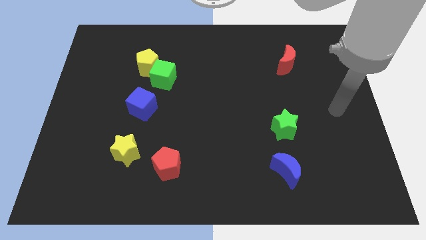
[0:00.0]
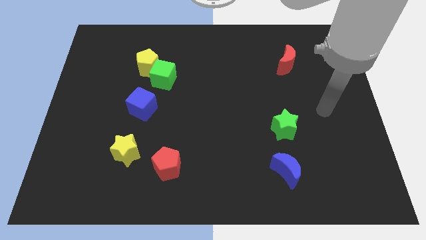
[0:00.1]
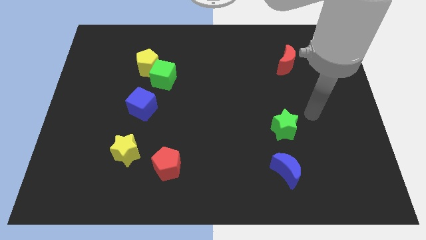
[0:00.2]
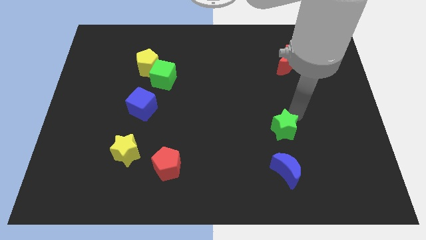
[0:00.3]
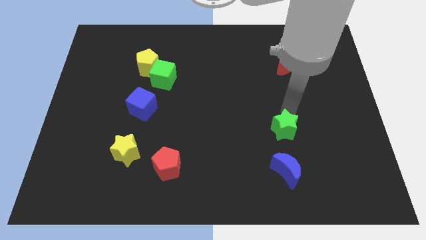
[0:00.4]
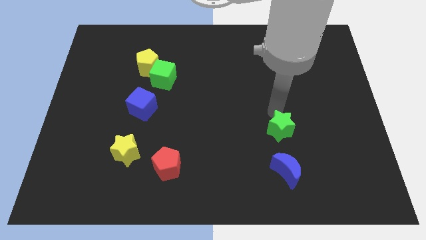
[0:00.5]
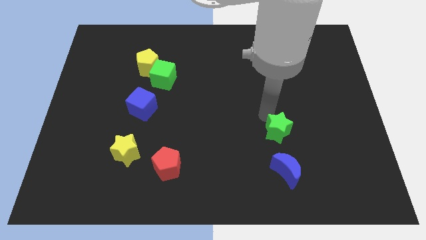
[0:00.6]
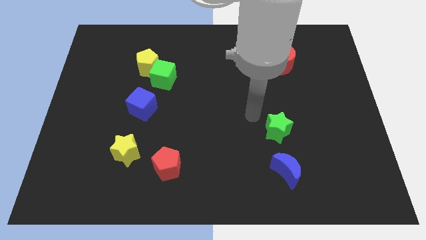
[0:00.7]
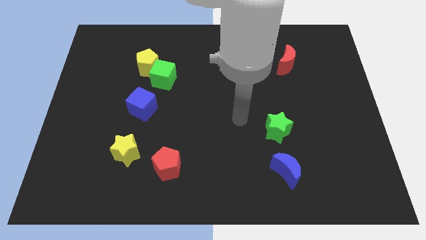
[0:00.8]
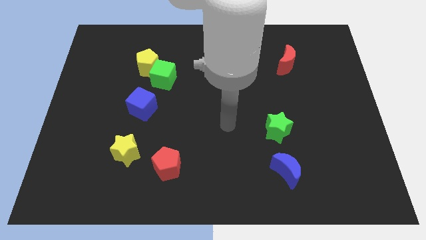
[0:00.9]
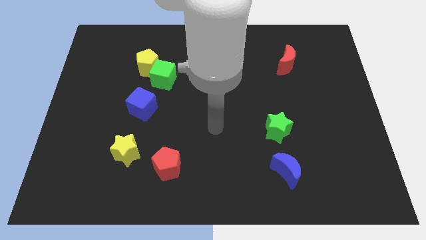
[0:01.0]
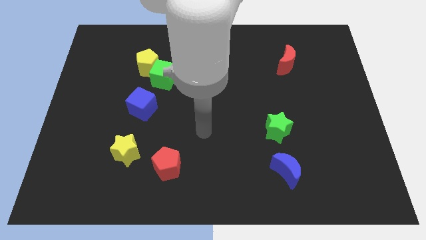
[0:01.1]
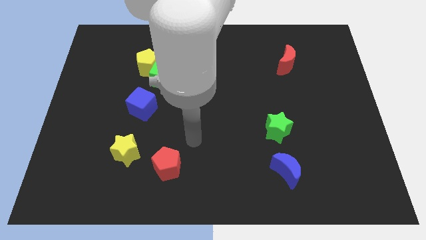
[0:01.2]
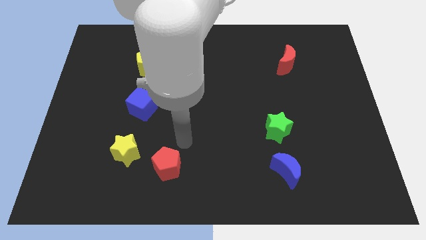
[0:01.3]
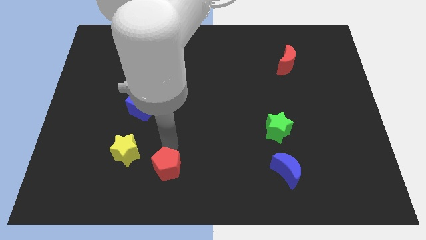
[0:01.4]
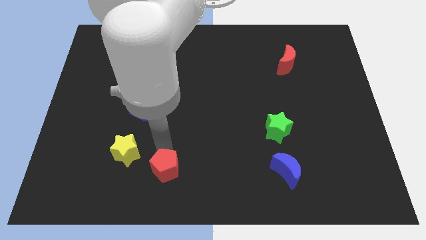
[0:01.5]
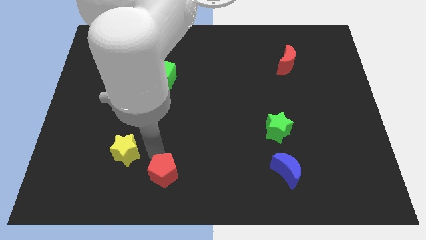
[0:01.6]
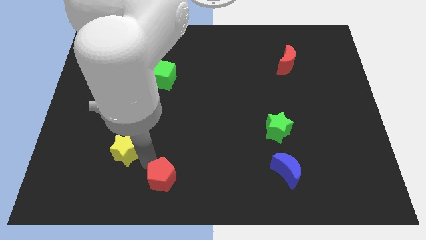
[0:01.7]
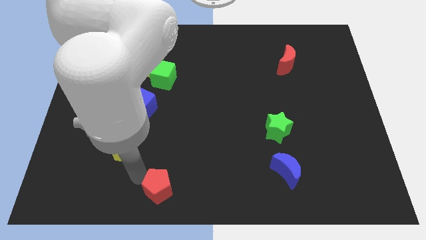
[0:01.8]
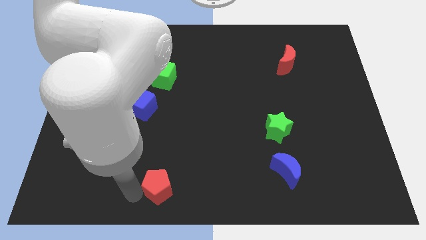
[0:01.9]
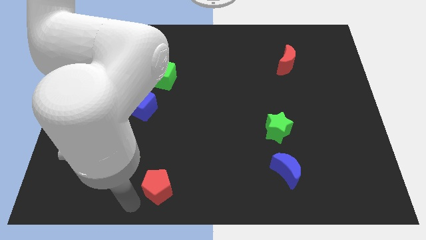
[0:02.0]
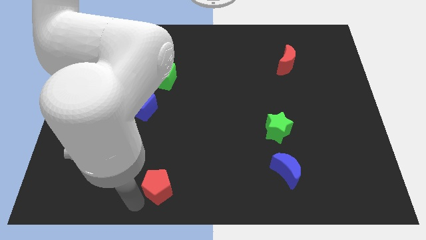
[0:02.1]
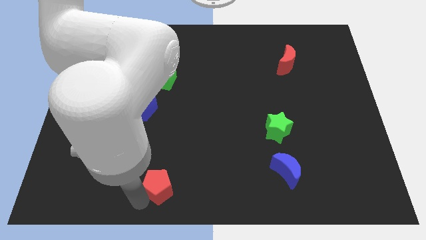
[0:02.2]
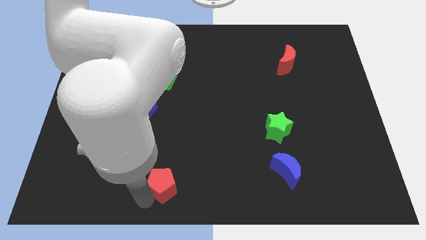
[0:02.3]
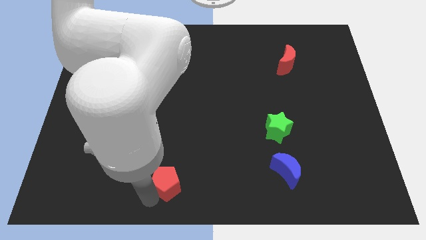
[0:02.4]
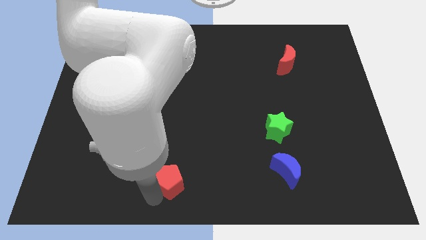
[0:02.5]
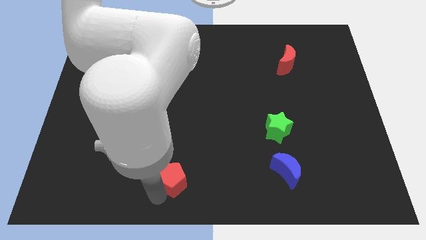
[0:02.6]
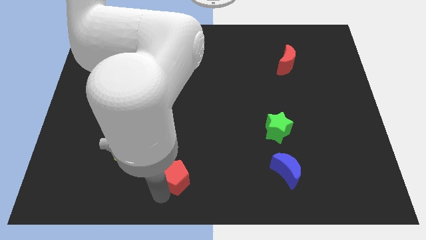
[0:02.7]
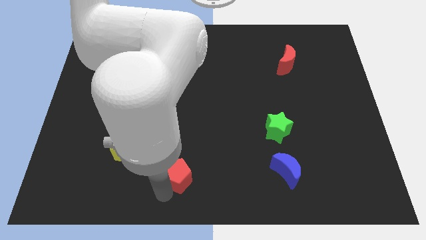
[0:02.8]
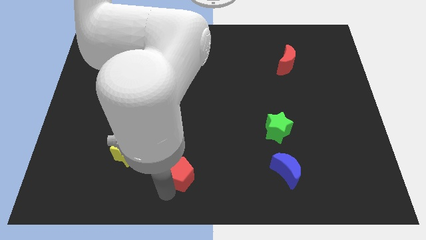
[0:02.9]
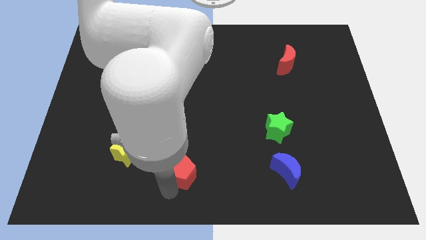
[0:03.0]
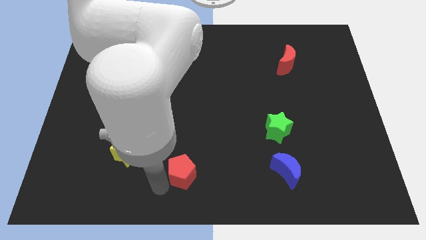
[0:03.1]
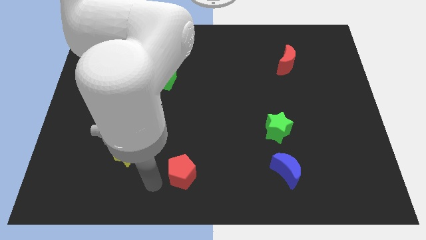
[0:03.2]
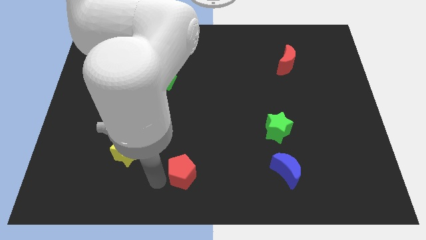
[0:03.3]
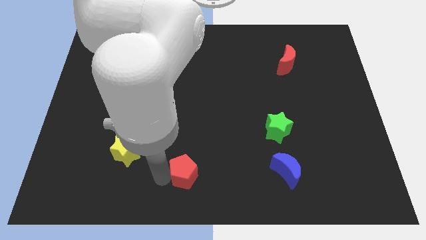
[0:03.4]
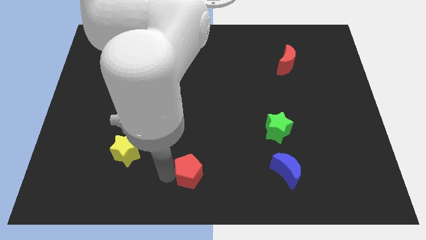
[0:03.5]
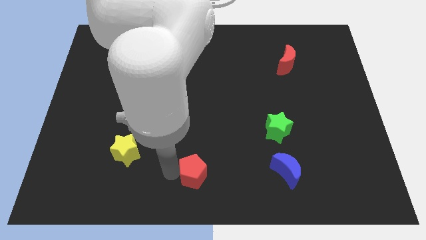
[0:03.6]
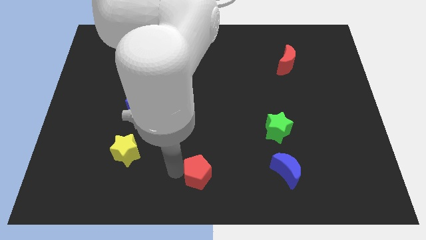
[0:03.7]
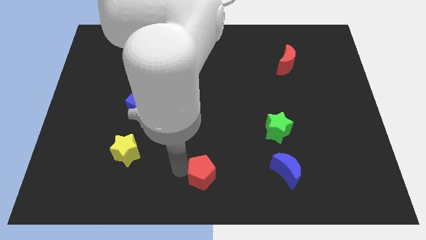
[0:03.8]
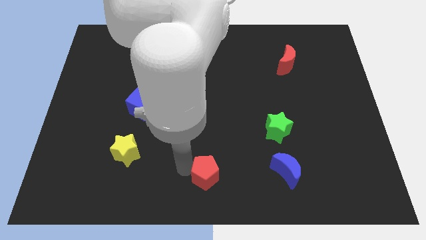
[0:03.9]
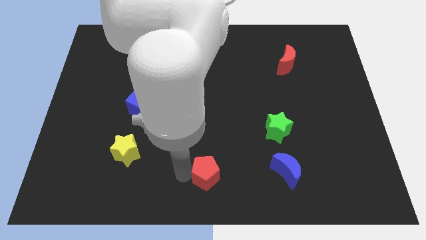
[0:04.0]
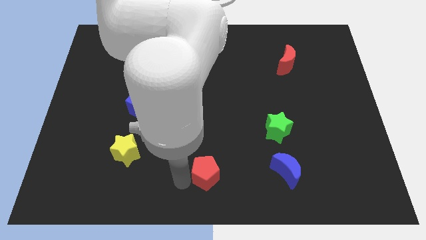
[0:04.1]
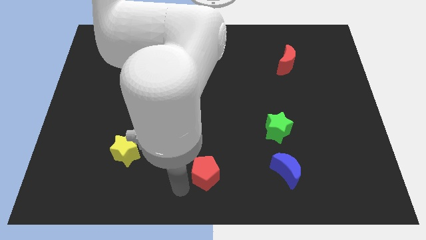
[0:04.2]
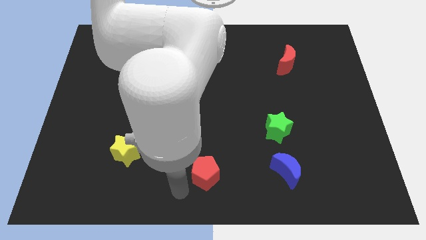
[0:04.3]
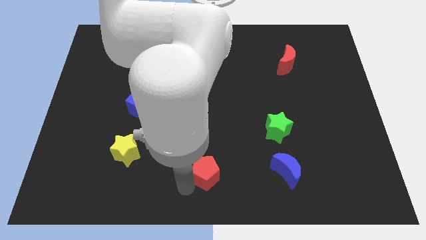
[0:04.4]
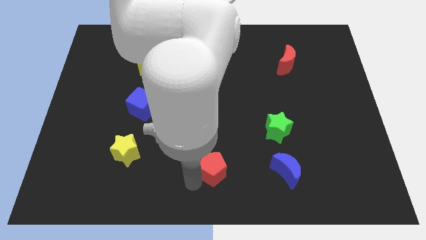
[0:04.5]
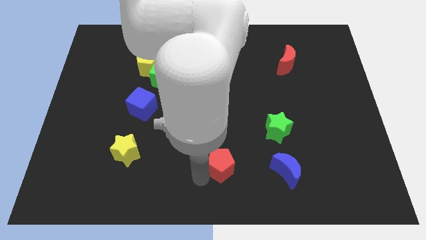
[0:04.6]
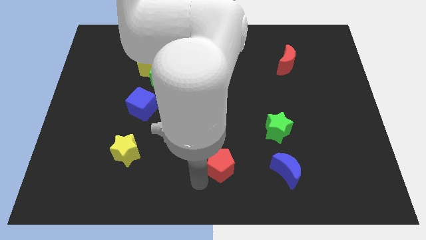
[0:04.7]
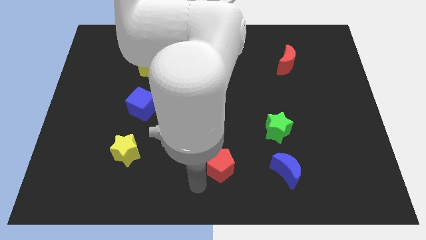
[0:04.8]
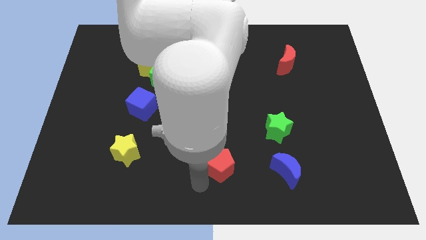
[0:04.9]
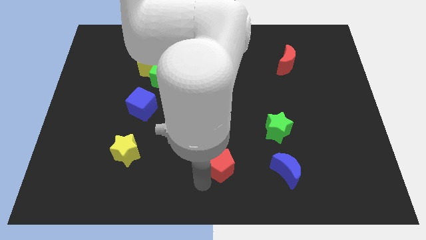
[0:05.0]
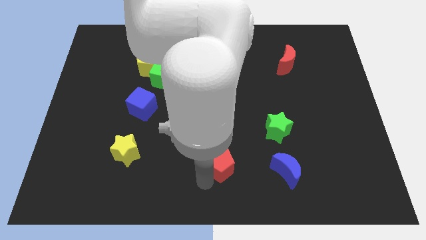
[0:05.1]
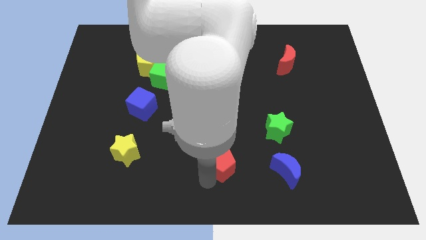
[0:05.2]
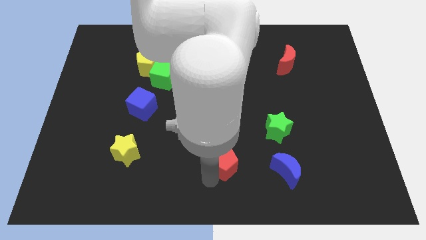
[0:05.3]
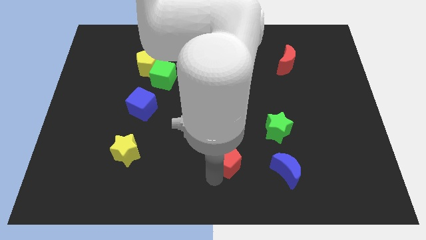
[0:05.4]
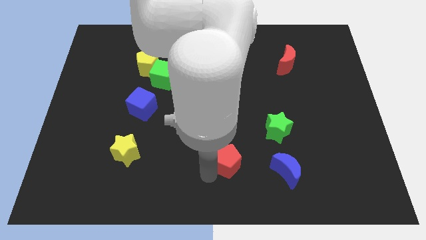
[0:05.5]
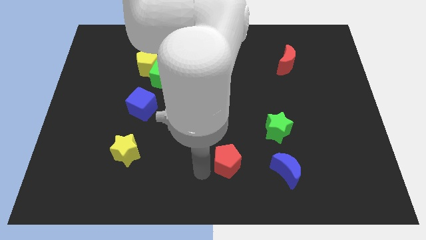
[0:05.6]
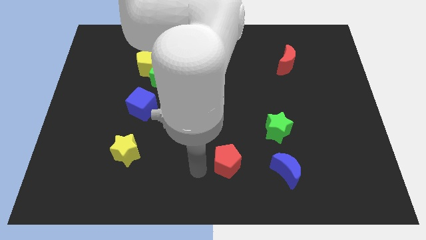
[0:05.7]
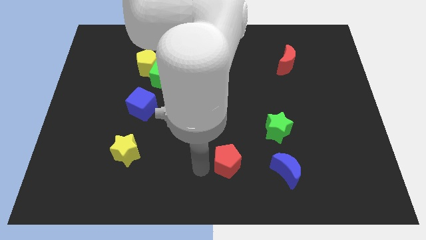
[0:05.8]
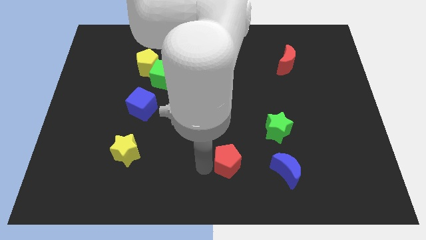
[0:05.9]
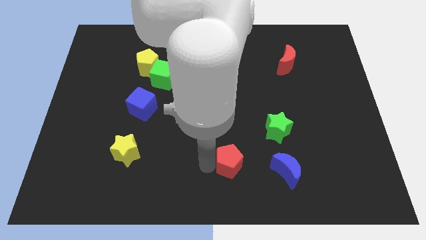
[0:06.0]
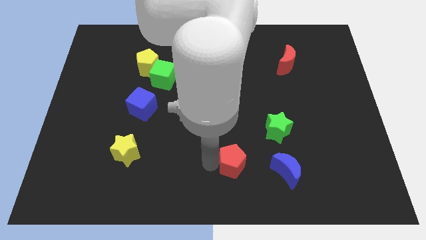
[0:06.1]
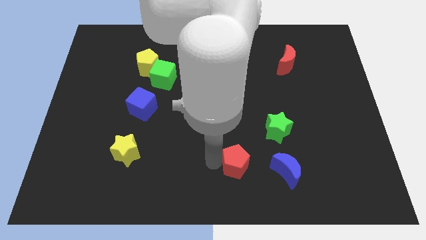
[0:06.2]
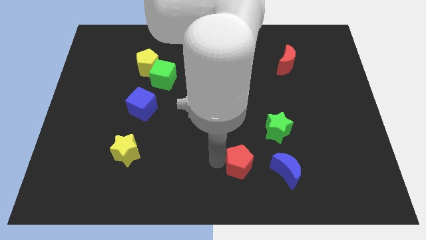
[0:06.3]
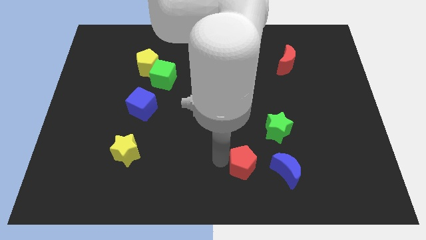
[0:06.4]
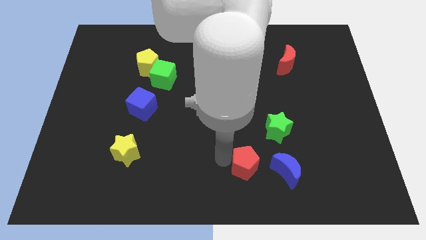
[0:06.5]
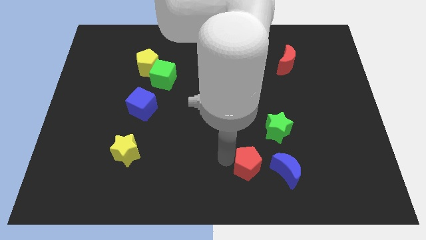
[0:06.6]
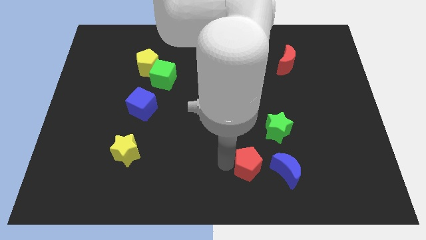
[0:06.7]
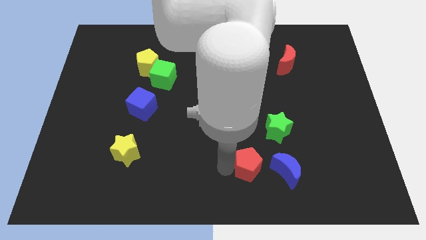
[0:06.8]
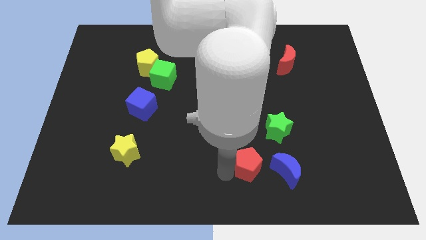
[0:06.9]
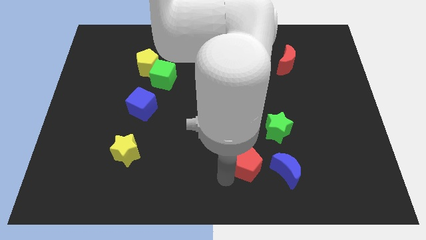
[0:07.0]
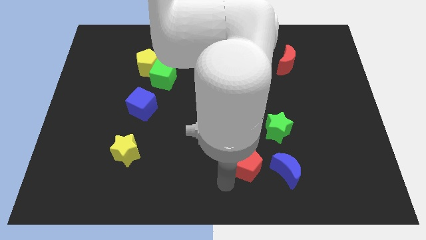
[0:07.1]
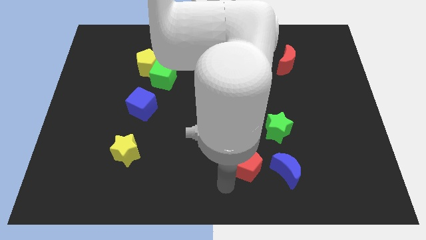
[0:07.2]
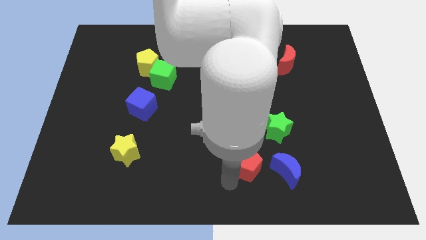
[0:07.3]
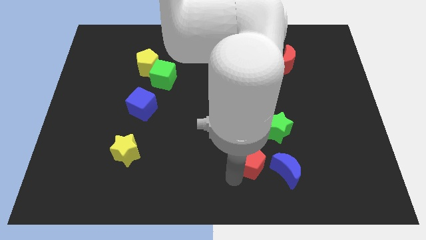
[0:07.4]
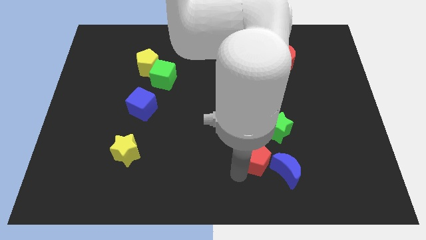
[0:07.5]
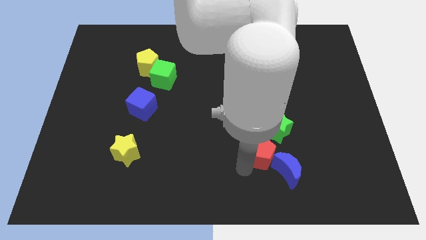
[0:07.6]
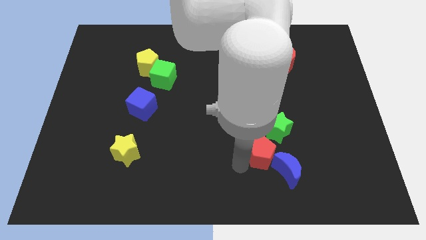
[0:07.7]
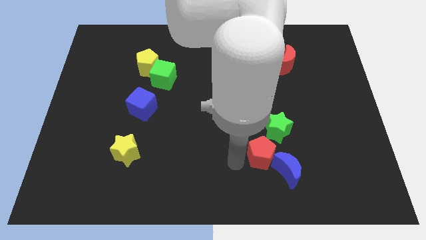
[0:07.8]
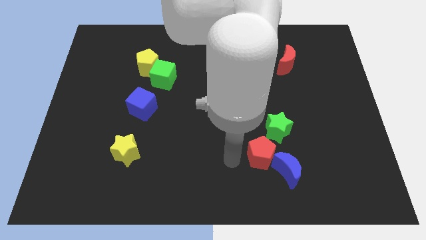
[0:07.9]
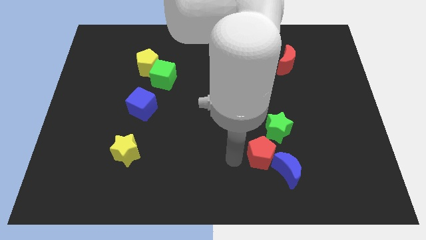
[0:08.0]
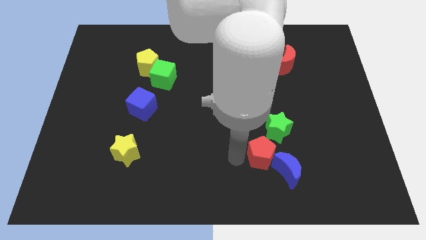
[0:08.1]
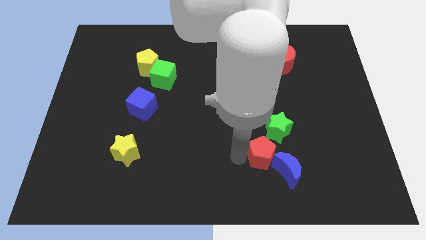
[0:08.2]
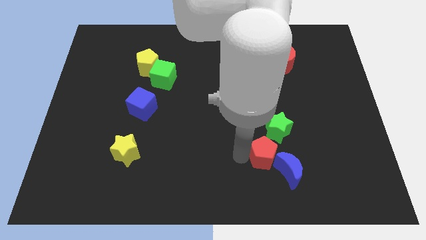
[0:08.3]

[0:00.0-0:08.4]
push the red pentagon right
